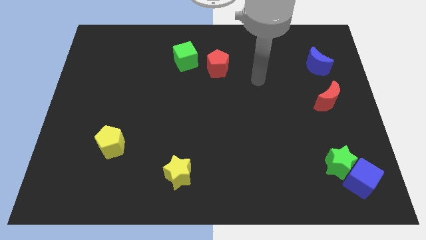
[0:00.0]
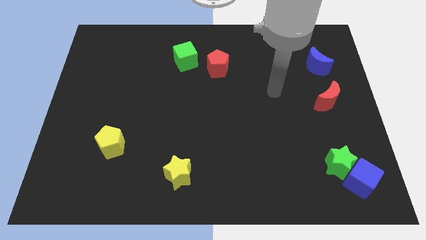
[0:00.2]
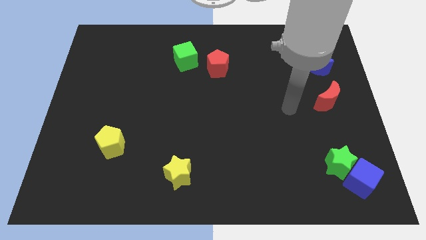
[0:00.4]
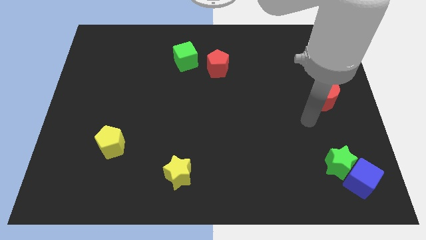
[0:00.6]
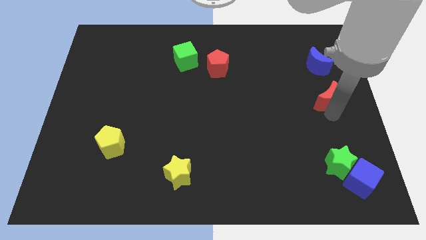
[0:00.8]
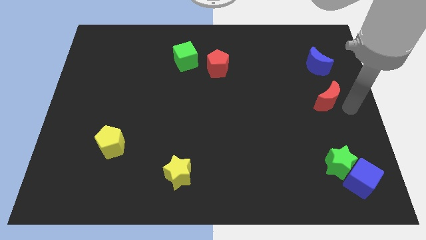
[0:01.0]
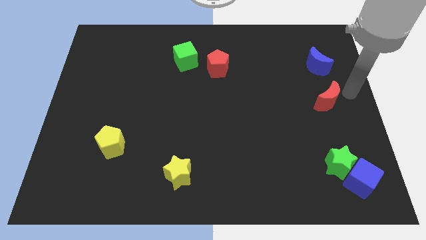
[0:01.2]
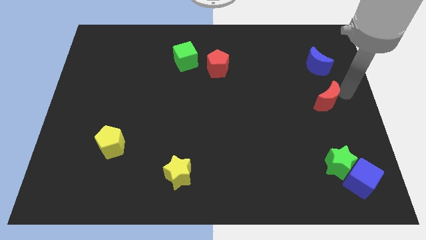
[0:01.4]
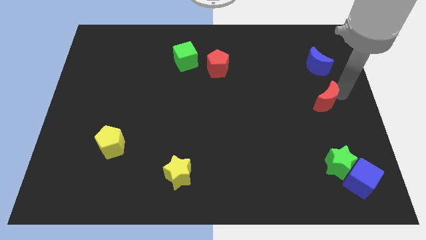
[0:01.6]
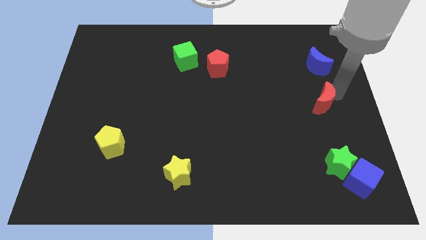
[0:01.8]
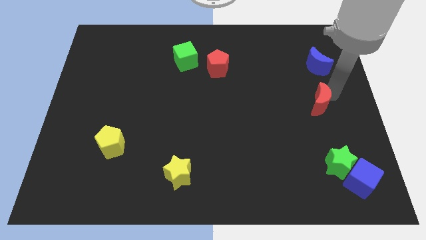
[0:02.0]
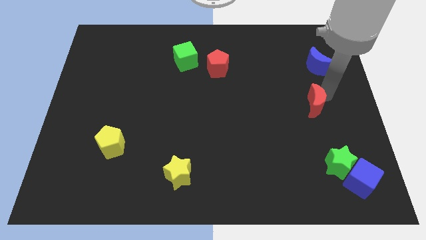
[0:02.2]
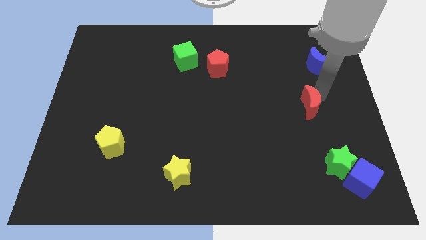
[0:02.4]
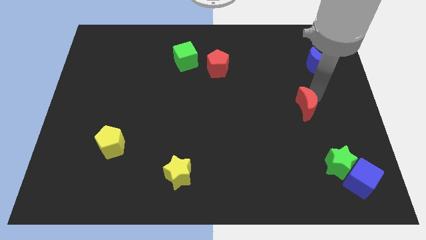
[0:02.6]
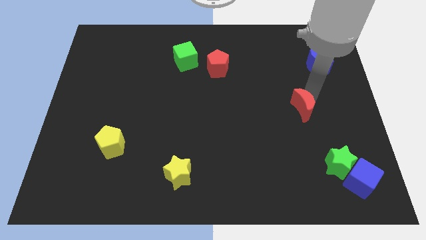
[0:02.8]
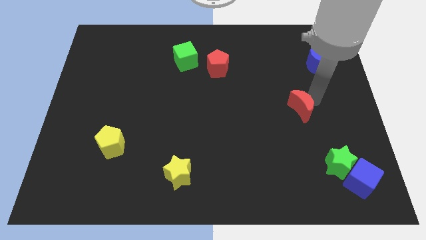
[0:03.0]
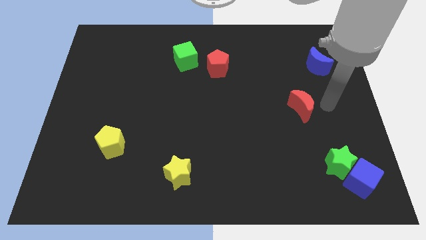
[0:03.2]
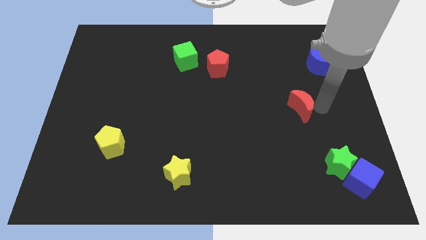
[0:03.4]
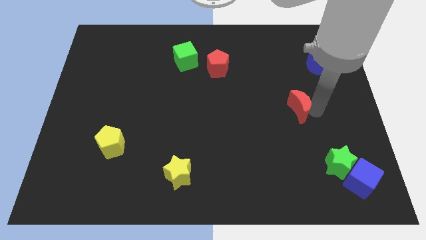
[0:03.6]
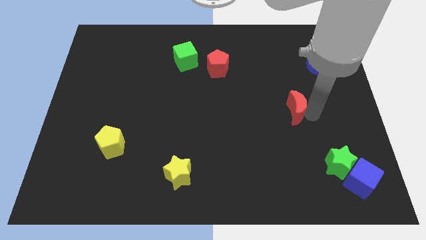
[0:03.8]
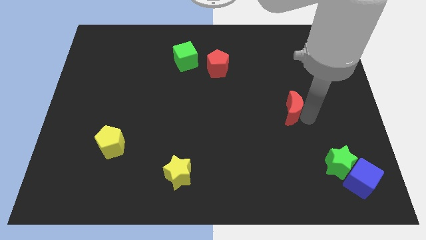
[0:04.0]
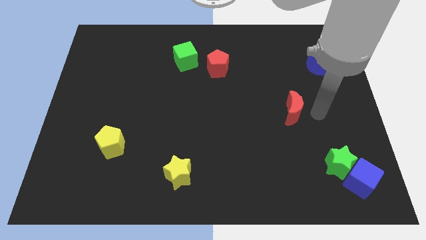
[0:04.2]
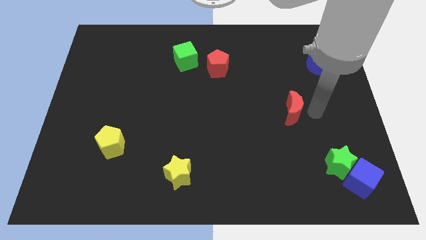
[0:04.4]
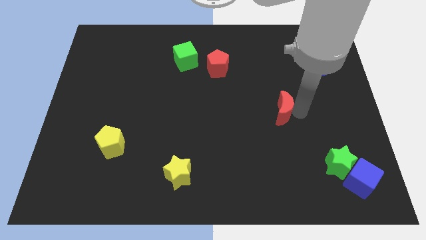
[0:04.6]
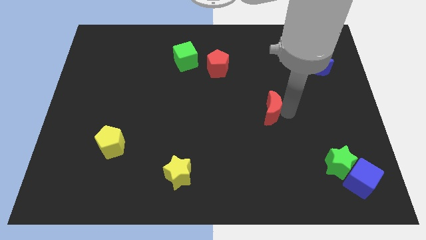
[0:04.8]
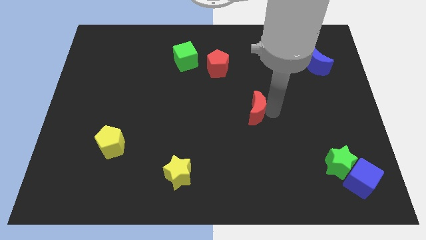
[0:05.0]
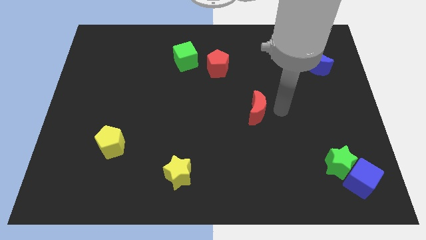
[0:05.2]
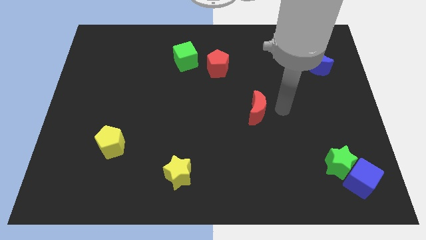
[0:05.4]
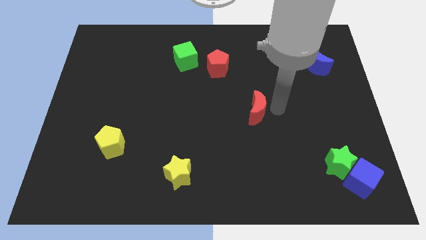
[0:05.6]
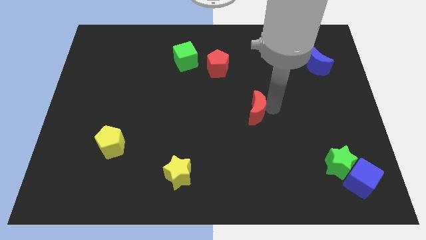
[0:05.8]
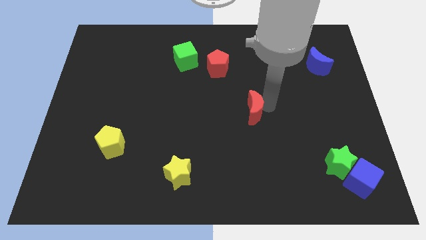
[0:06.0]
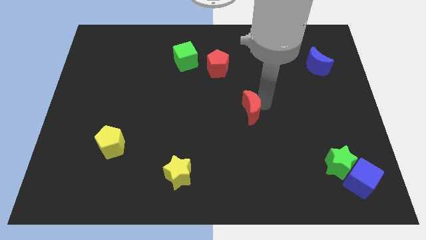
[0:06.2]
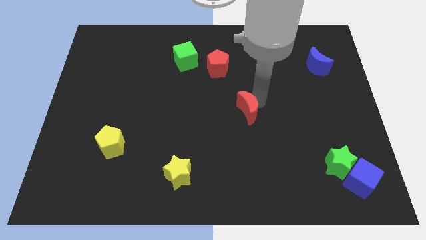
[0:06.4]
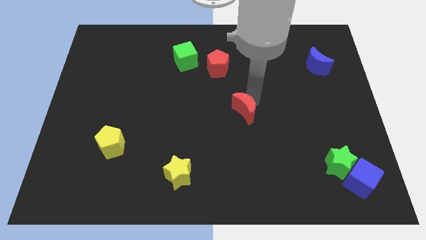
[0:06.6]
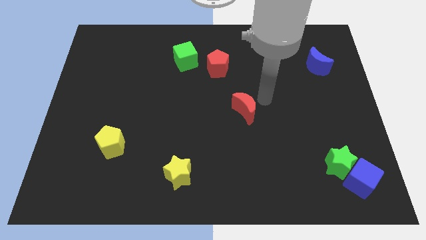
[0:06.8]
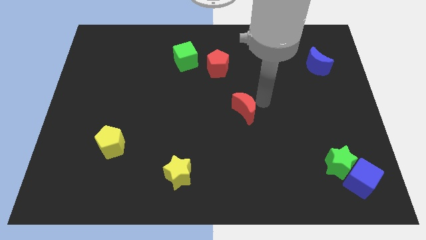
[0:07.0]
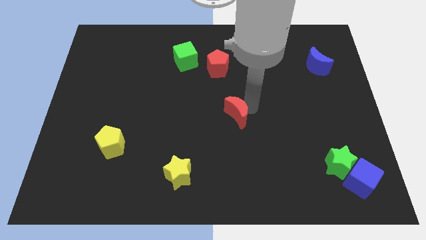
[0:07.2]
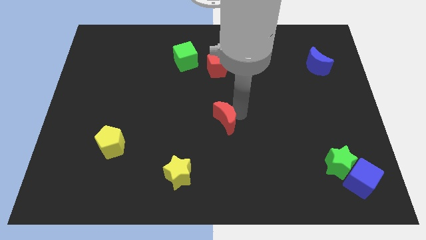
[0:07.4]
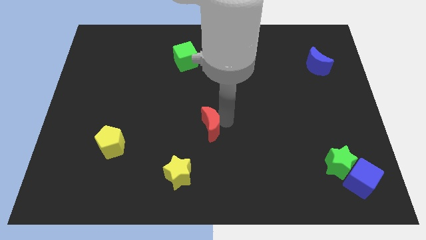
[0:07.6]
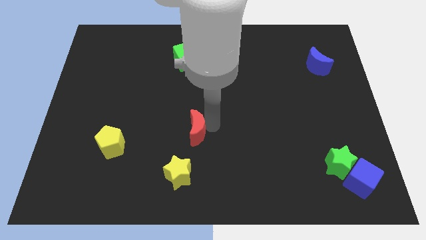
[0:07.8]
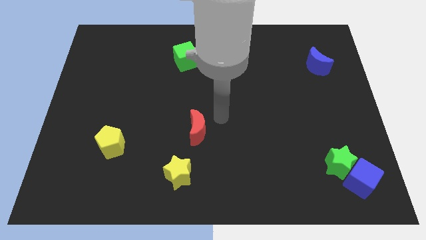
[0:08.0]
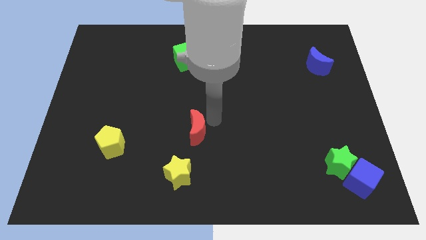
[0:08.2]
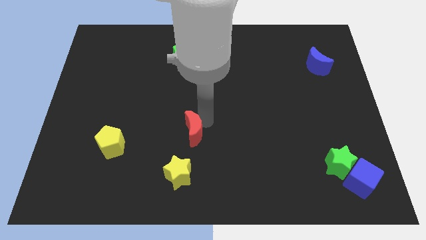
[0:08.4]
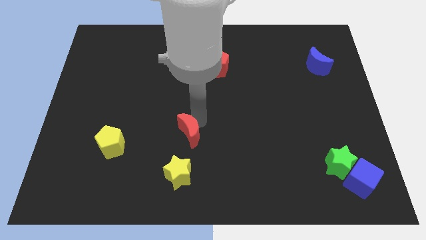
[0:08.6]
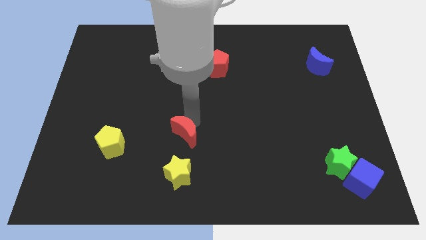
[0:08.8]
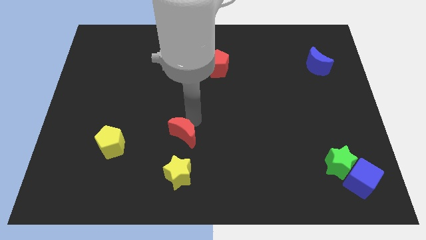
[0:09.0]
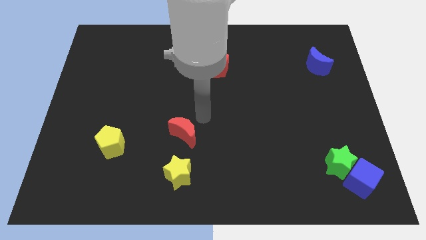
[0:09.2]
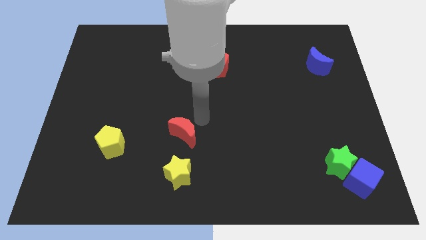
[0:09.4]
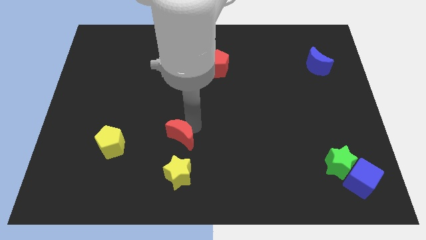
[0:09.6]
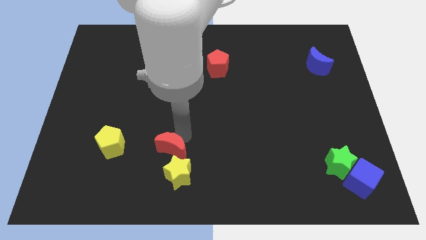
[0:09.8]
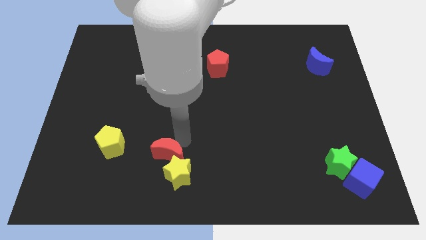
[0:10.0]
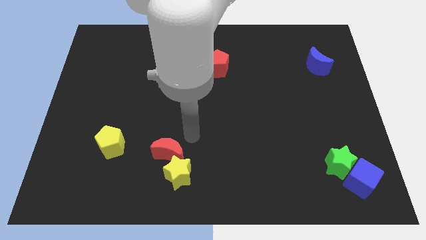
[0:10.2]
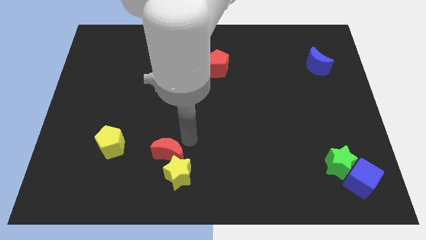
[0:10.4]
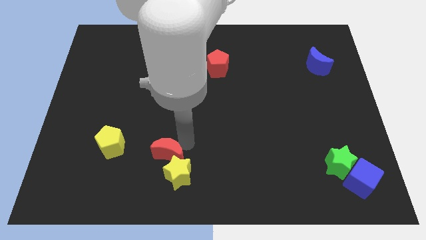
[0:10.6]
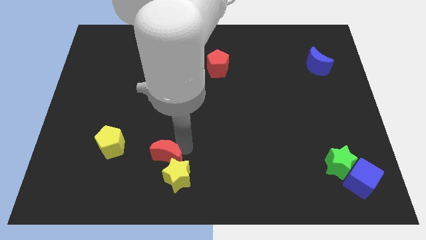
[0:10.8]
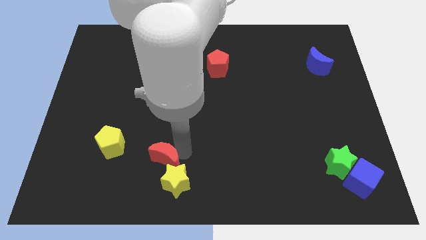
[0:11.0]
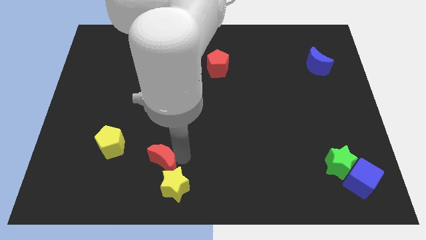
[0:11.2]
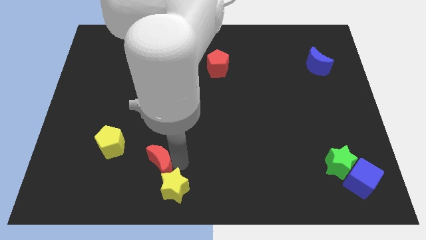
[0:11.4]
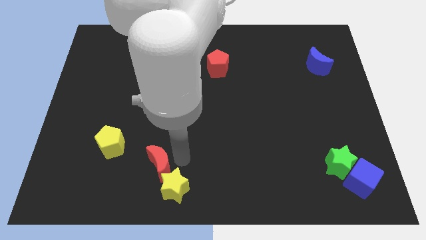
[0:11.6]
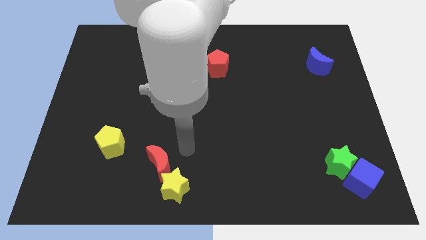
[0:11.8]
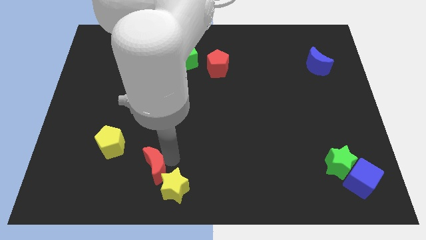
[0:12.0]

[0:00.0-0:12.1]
push the red moon just left of the yellow star

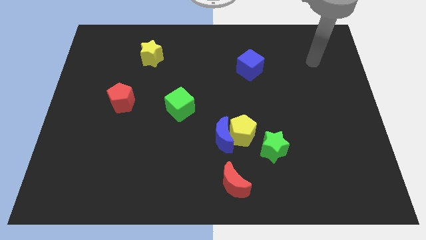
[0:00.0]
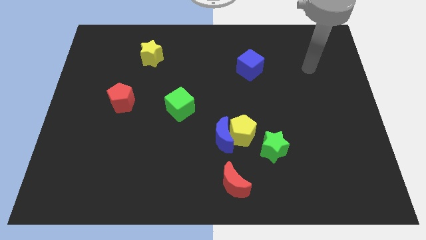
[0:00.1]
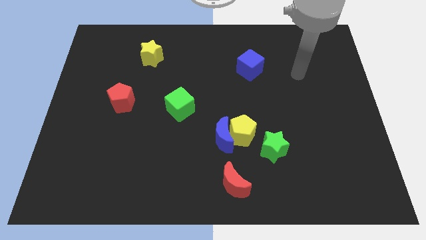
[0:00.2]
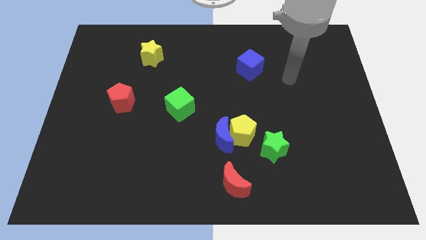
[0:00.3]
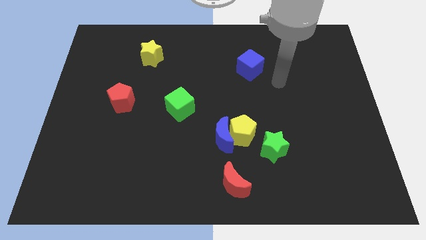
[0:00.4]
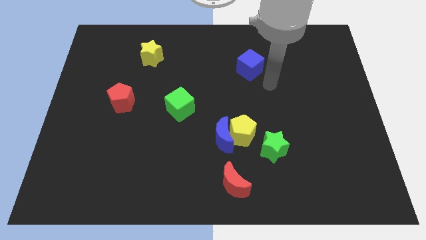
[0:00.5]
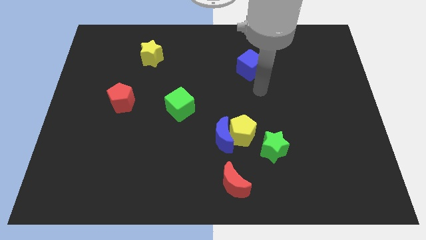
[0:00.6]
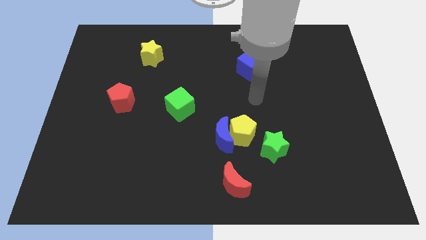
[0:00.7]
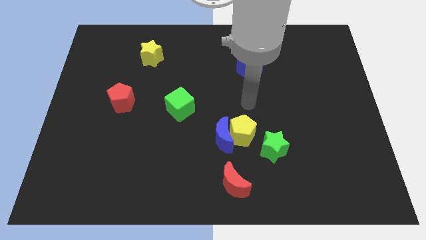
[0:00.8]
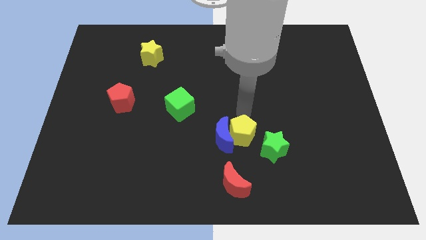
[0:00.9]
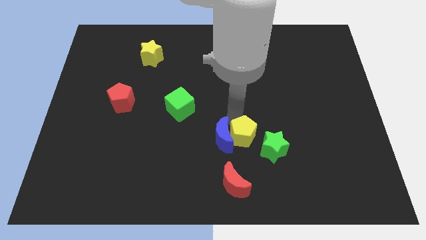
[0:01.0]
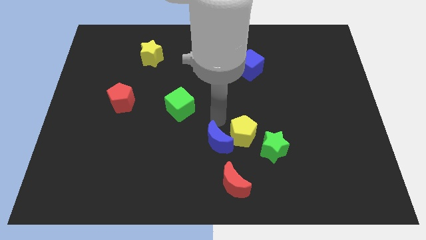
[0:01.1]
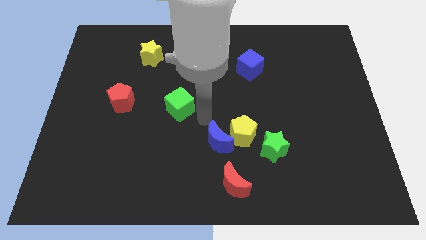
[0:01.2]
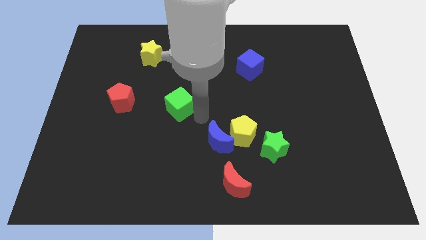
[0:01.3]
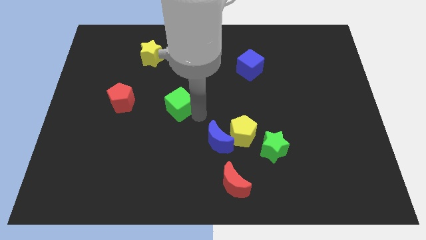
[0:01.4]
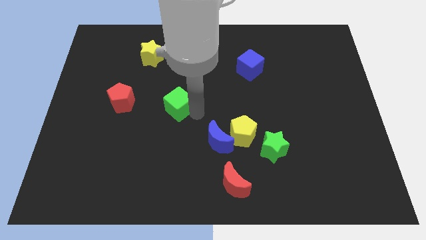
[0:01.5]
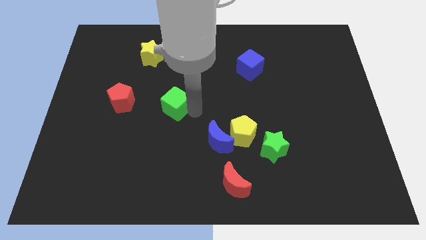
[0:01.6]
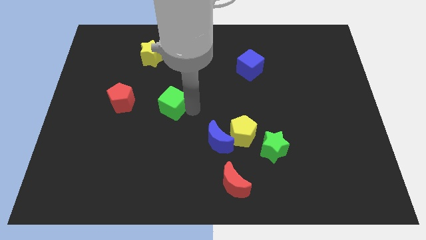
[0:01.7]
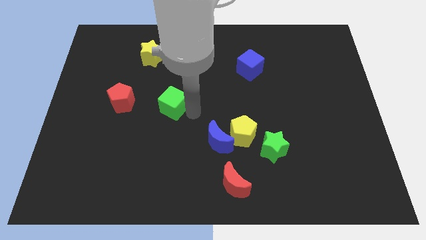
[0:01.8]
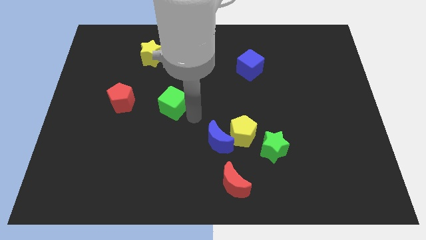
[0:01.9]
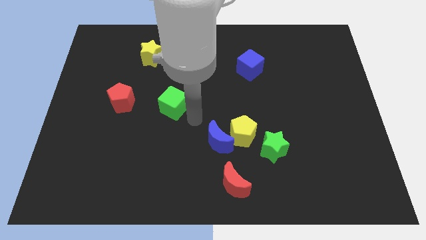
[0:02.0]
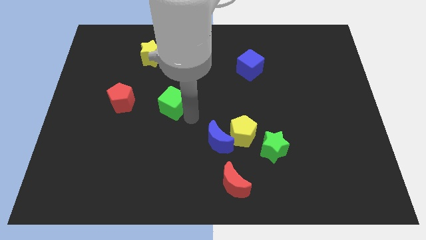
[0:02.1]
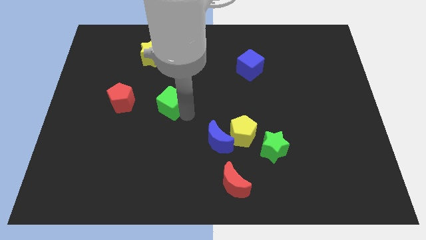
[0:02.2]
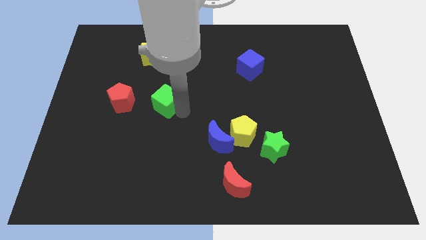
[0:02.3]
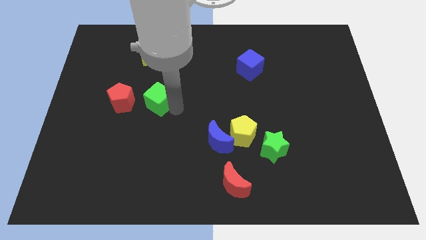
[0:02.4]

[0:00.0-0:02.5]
slide the green cube to the bottom of the yellow star
